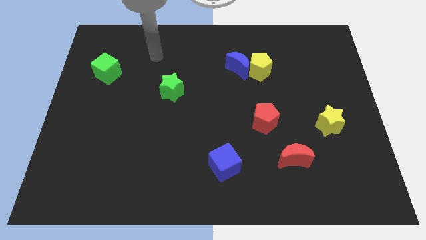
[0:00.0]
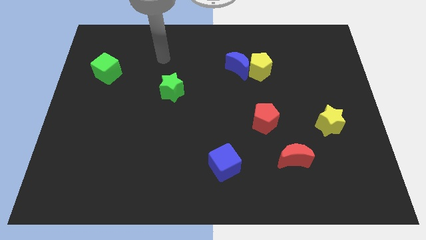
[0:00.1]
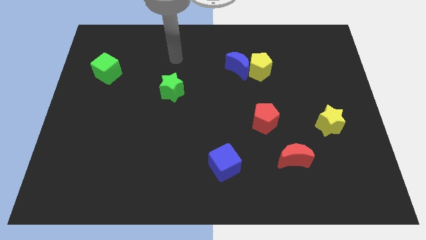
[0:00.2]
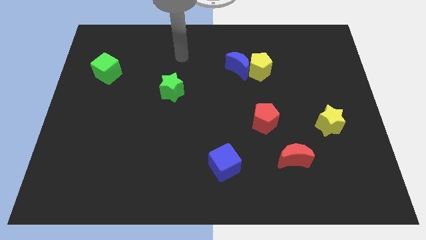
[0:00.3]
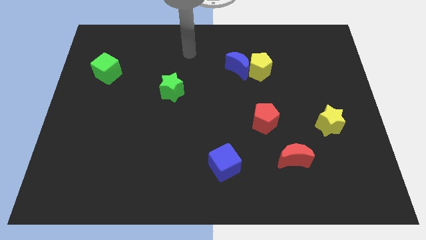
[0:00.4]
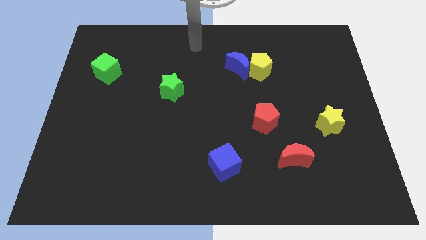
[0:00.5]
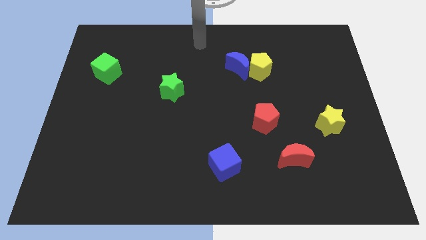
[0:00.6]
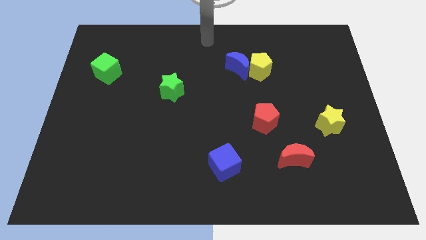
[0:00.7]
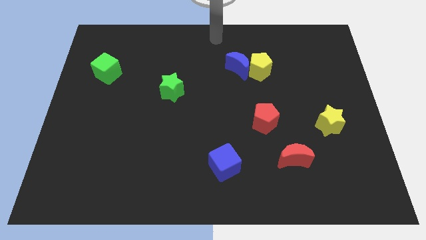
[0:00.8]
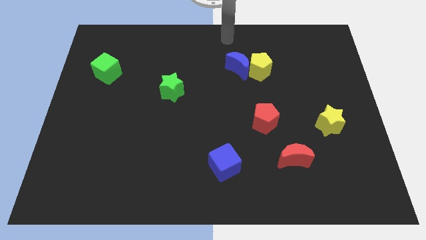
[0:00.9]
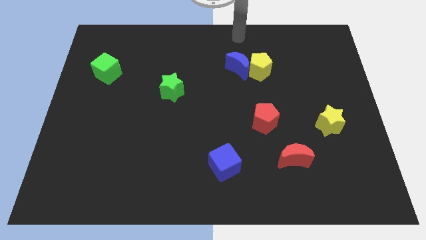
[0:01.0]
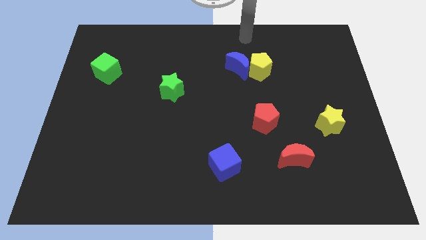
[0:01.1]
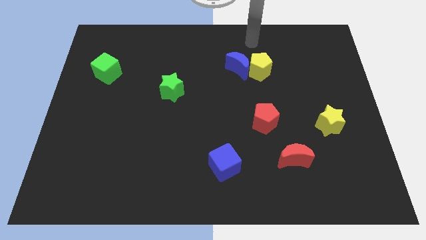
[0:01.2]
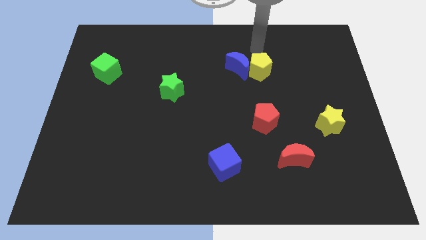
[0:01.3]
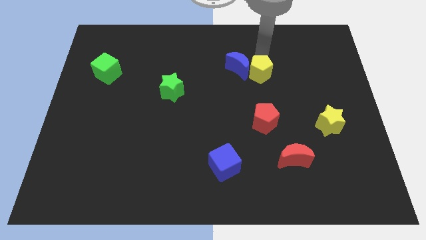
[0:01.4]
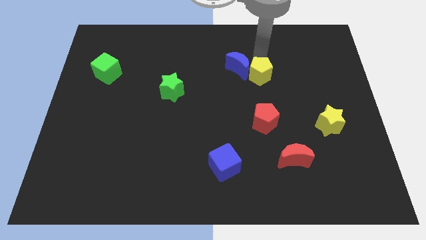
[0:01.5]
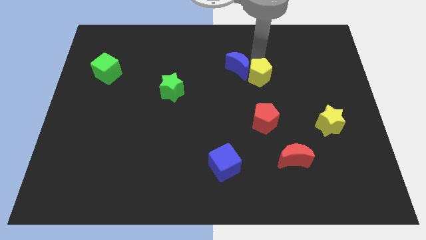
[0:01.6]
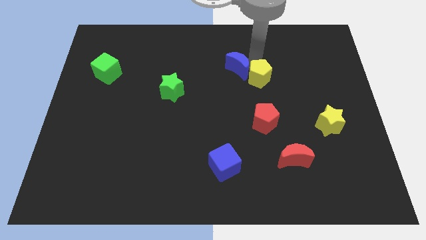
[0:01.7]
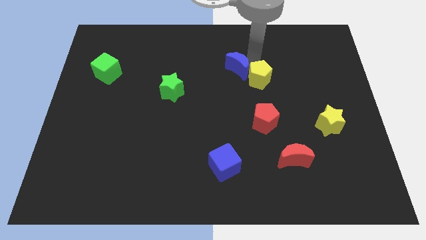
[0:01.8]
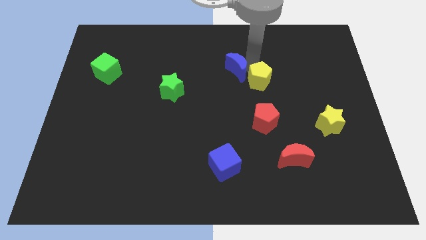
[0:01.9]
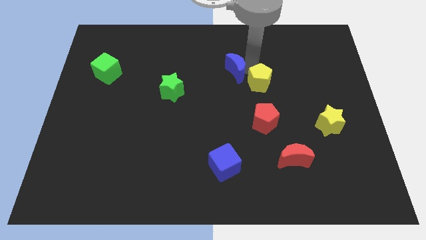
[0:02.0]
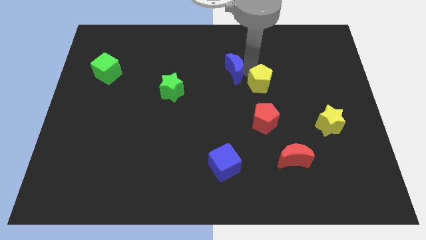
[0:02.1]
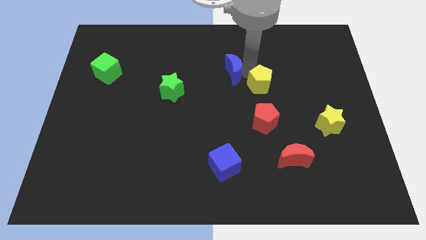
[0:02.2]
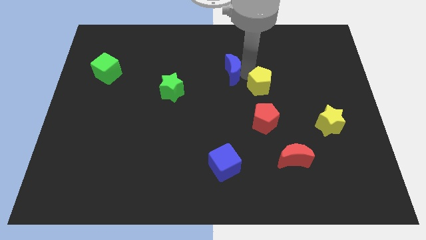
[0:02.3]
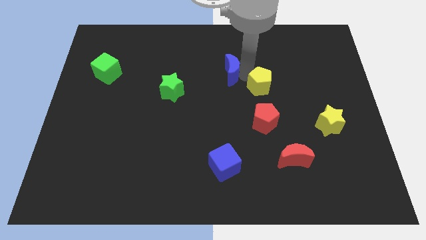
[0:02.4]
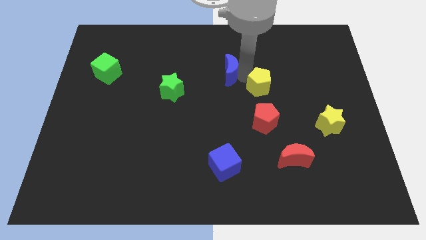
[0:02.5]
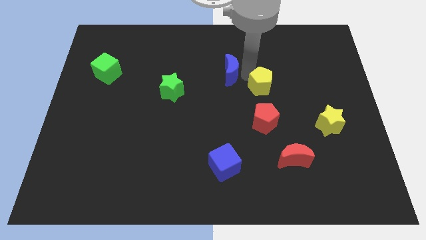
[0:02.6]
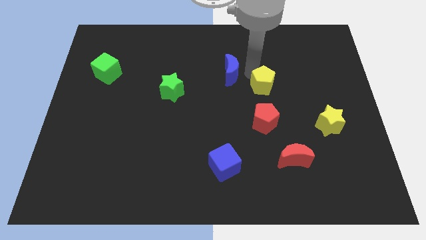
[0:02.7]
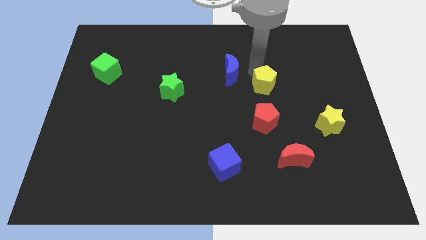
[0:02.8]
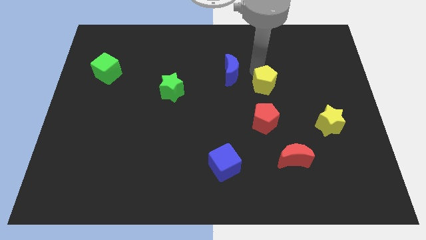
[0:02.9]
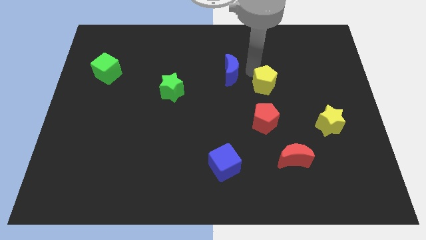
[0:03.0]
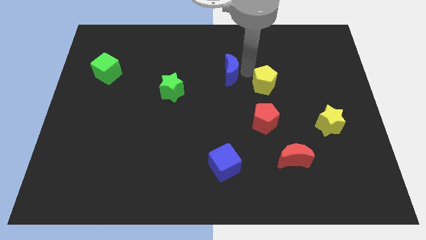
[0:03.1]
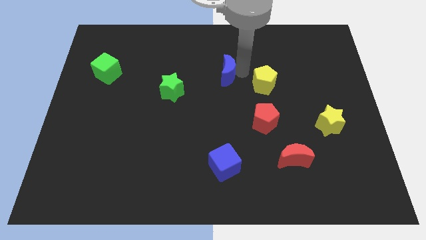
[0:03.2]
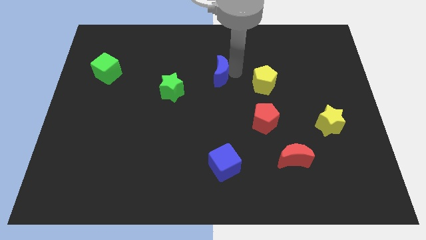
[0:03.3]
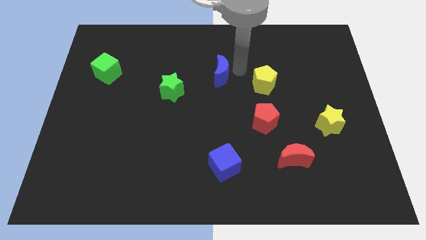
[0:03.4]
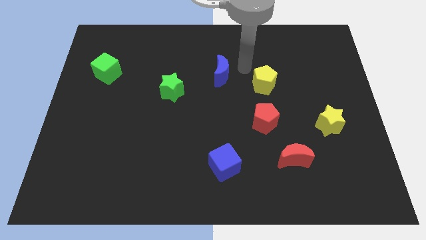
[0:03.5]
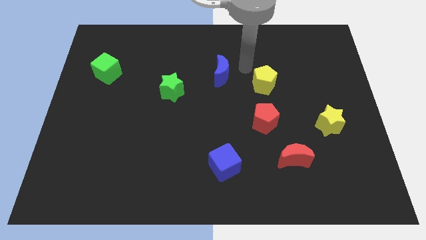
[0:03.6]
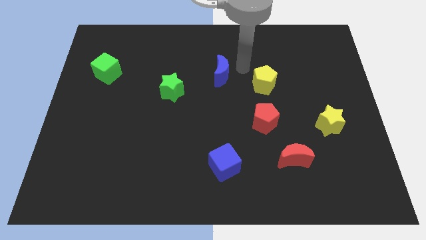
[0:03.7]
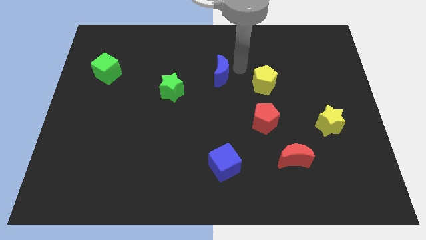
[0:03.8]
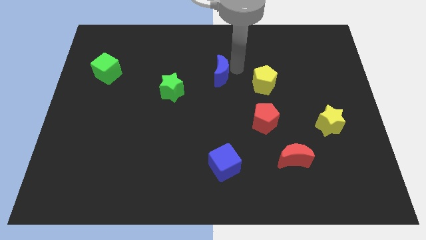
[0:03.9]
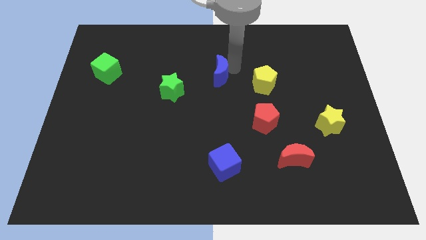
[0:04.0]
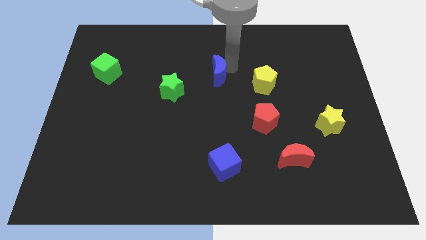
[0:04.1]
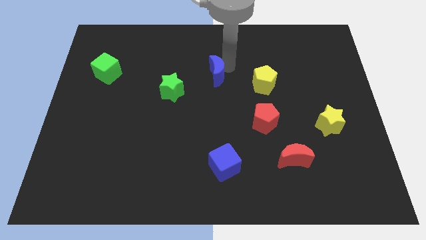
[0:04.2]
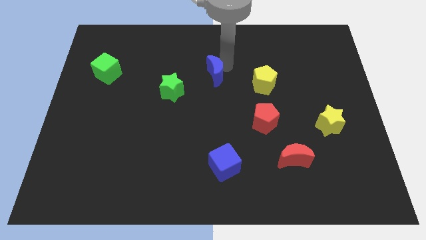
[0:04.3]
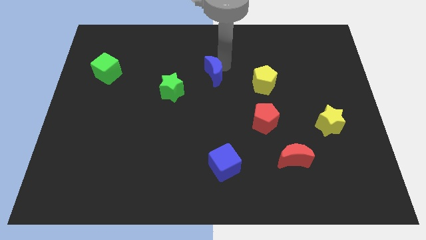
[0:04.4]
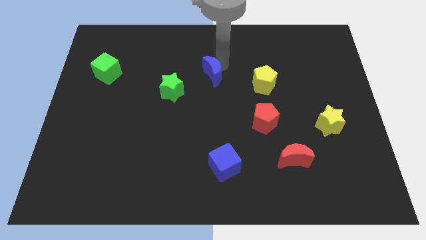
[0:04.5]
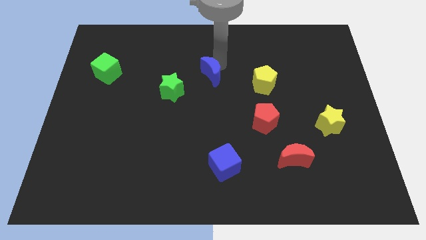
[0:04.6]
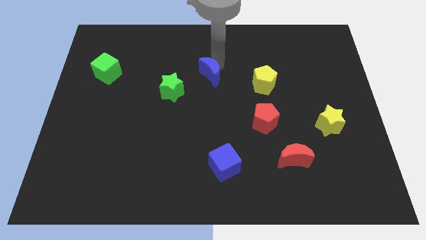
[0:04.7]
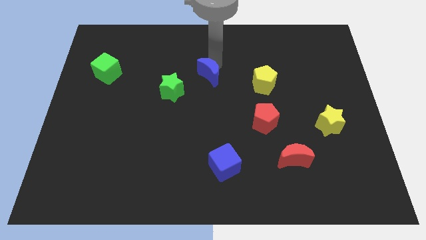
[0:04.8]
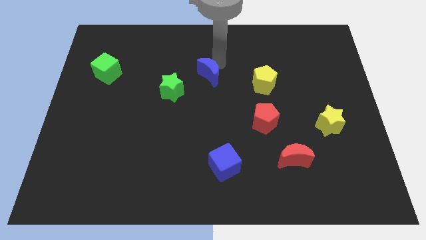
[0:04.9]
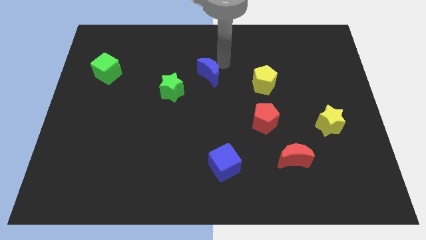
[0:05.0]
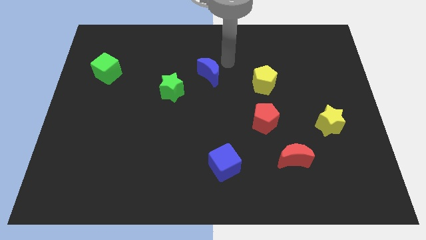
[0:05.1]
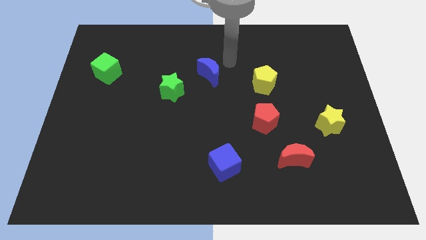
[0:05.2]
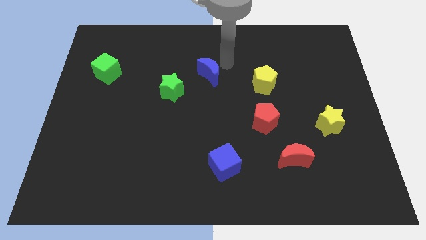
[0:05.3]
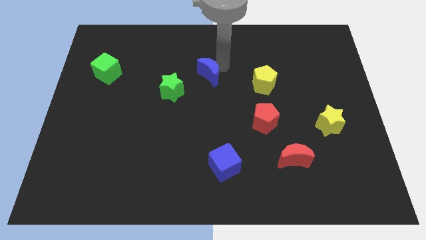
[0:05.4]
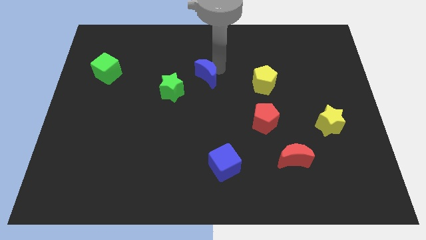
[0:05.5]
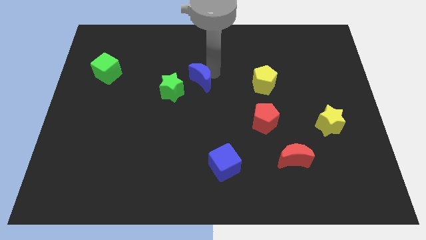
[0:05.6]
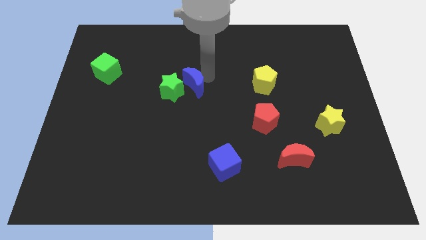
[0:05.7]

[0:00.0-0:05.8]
put the blue moon towards the green star

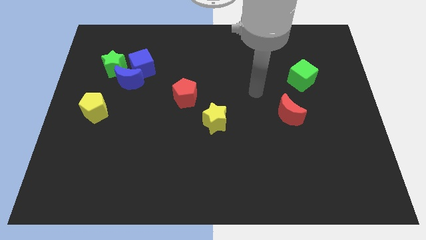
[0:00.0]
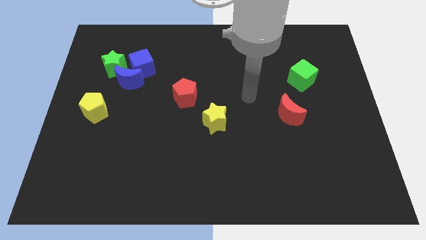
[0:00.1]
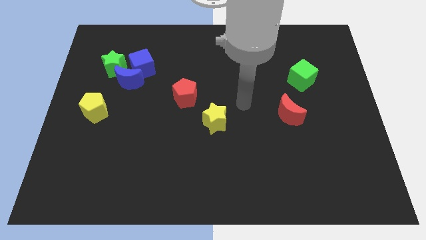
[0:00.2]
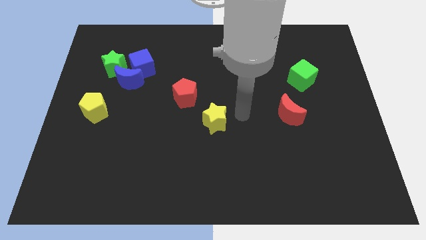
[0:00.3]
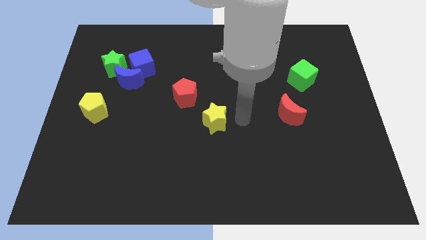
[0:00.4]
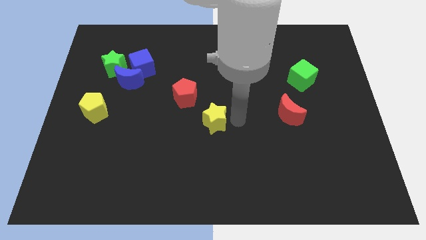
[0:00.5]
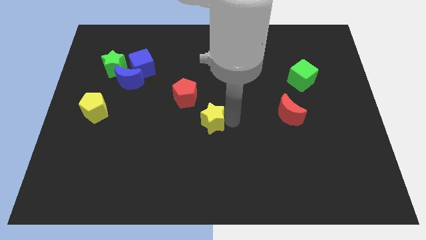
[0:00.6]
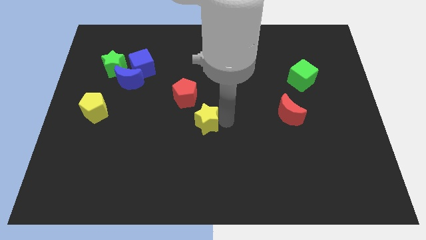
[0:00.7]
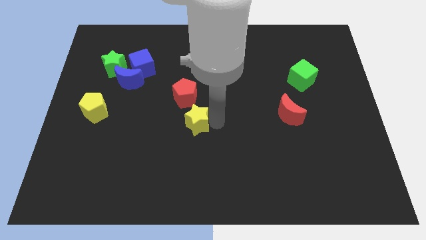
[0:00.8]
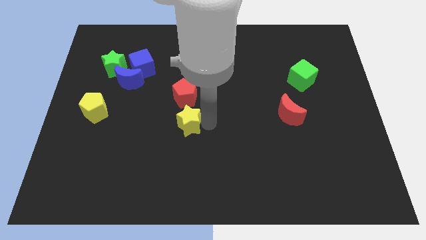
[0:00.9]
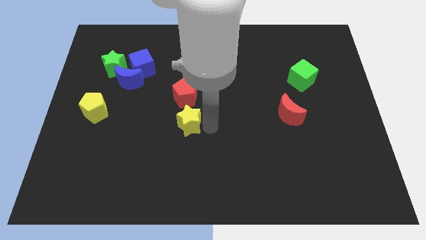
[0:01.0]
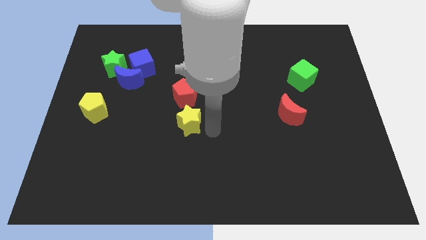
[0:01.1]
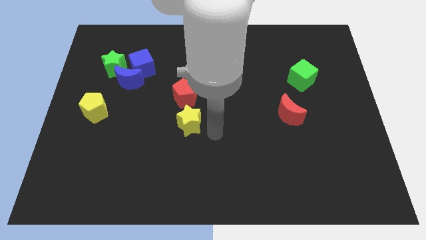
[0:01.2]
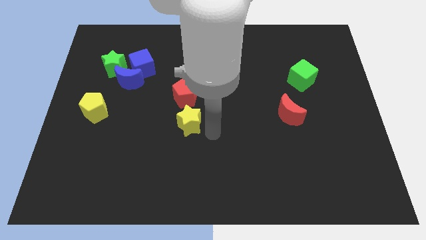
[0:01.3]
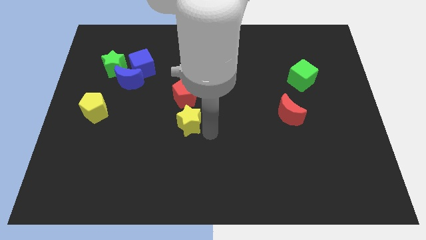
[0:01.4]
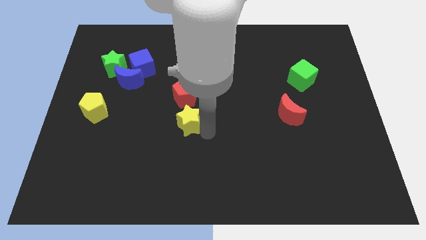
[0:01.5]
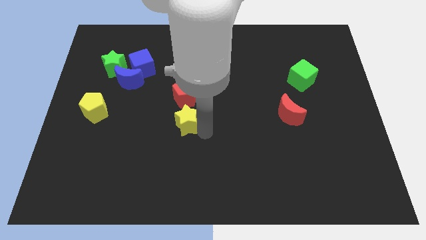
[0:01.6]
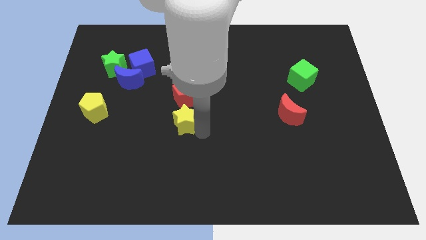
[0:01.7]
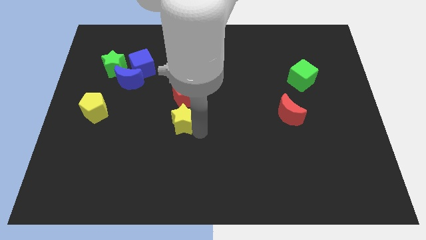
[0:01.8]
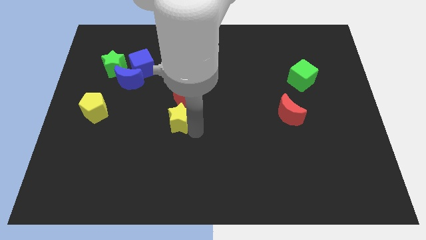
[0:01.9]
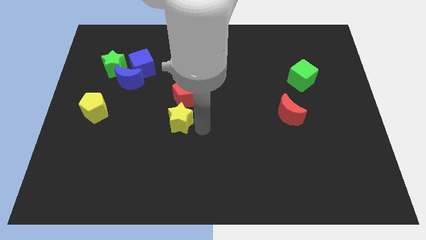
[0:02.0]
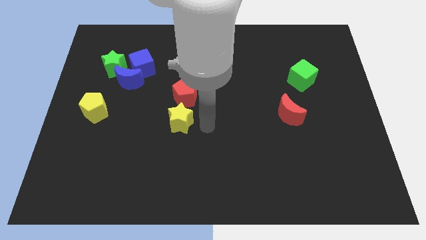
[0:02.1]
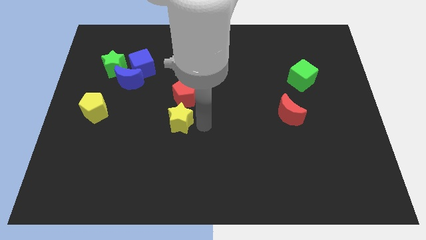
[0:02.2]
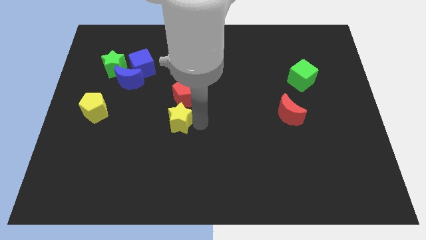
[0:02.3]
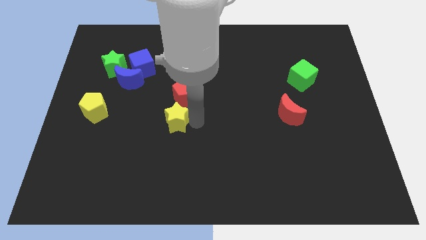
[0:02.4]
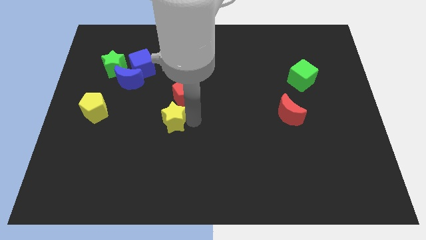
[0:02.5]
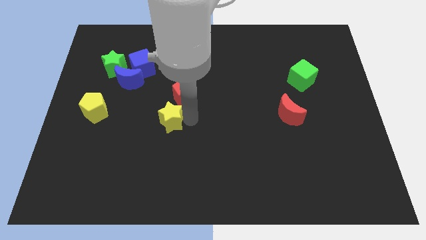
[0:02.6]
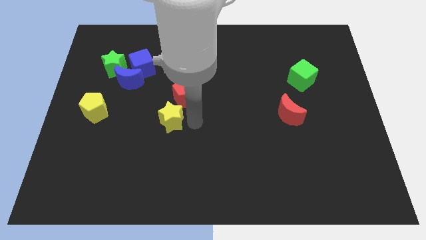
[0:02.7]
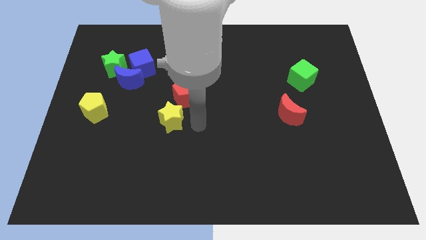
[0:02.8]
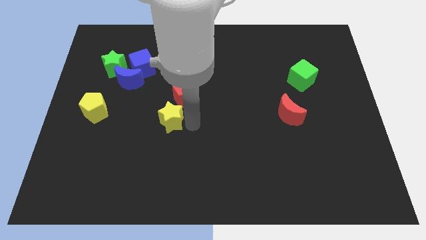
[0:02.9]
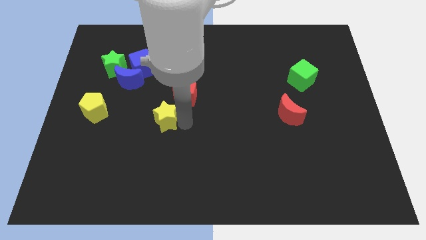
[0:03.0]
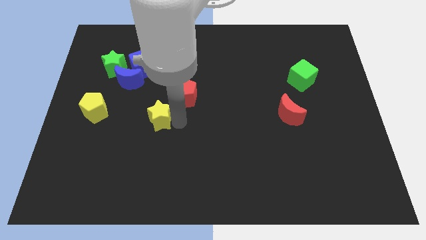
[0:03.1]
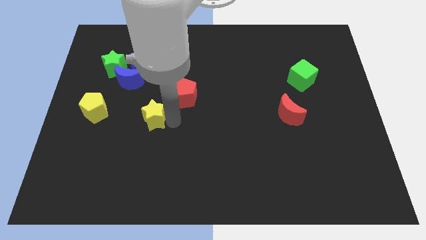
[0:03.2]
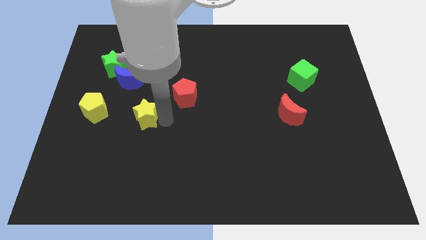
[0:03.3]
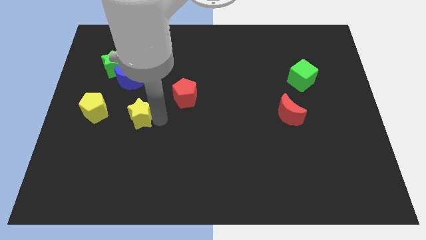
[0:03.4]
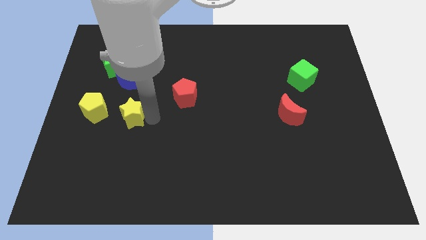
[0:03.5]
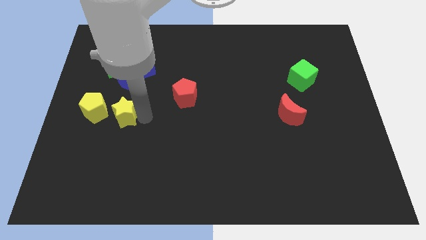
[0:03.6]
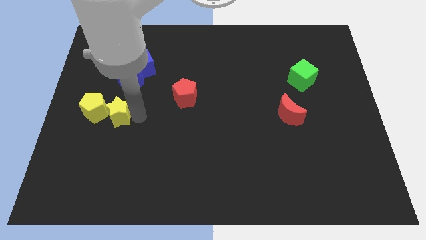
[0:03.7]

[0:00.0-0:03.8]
put the yellow star towards the yellow pentagon
